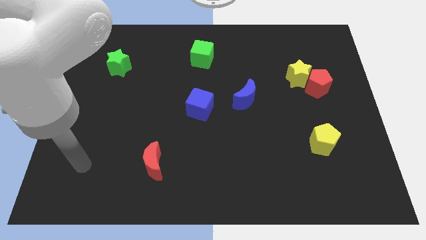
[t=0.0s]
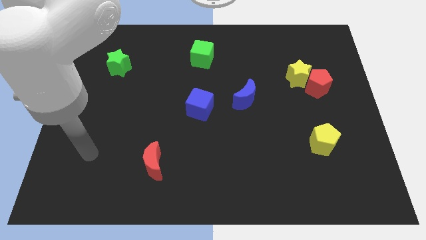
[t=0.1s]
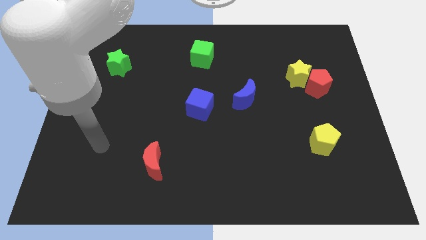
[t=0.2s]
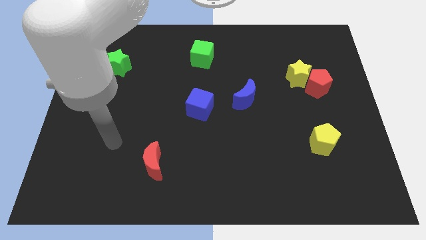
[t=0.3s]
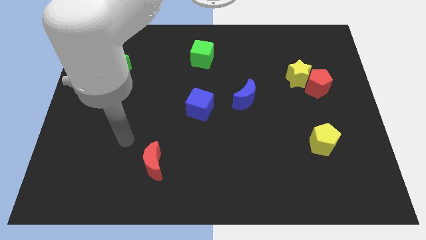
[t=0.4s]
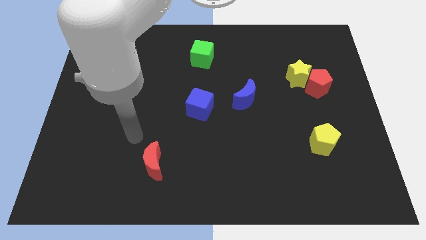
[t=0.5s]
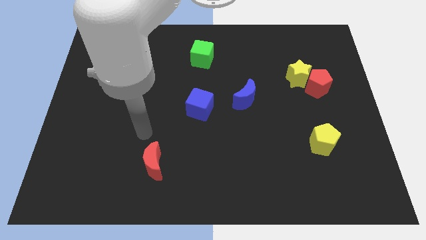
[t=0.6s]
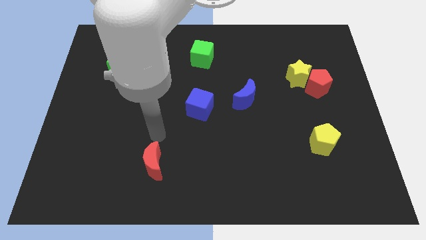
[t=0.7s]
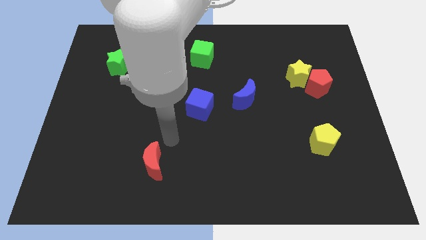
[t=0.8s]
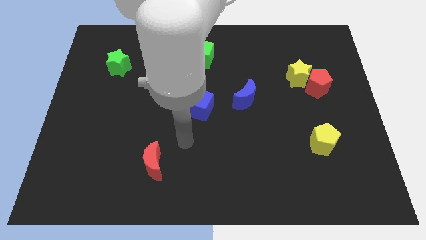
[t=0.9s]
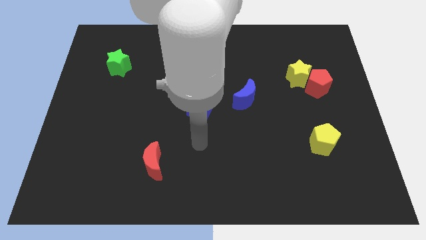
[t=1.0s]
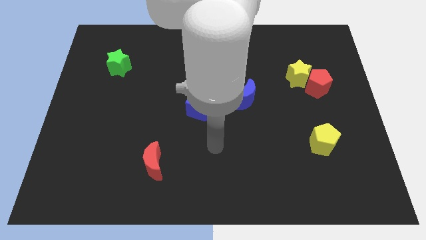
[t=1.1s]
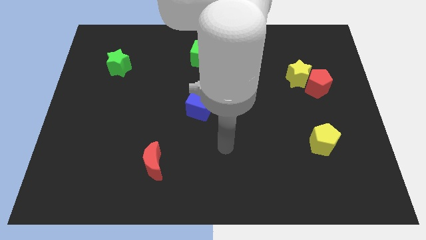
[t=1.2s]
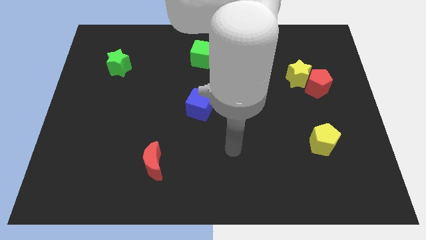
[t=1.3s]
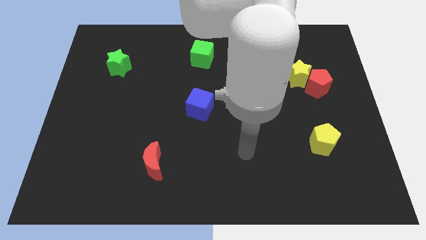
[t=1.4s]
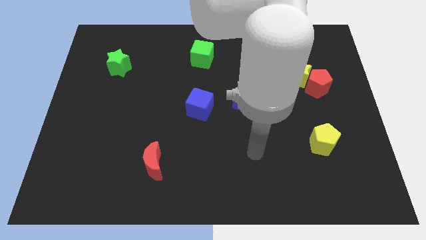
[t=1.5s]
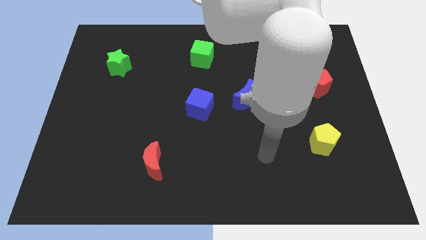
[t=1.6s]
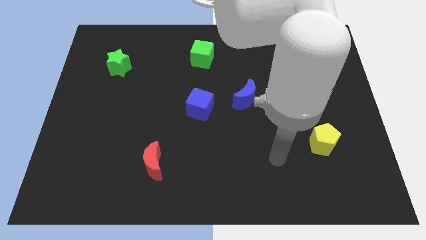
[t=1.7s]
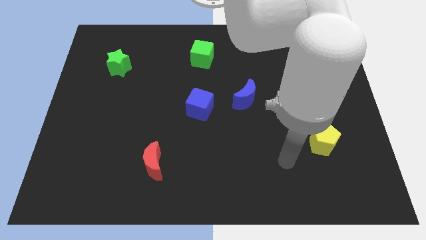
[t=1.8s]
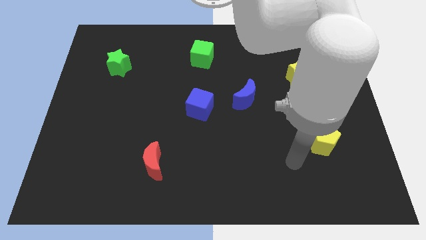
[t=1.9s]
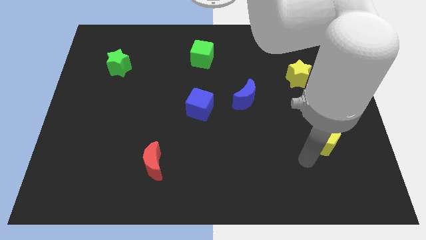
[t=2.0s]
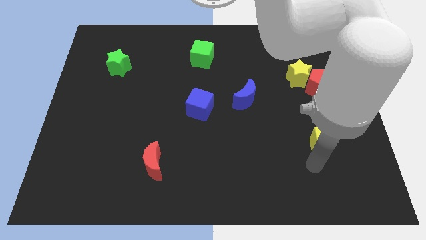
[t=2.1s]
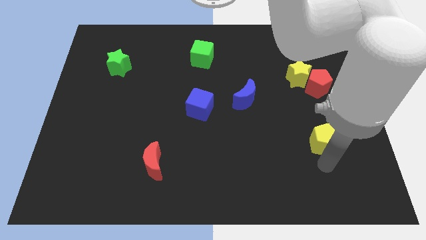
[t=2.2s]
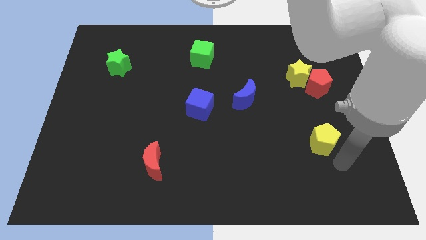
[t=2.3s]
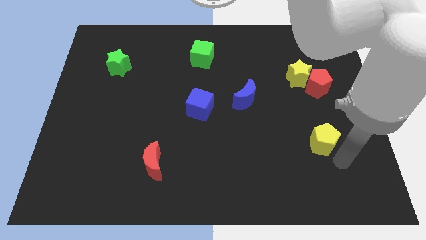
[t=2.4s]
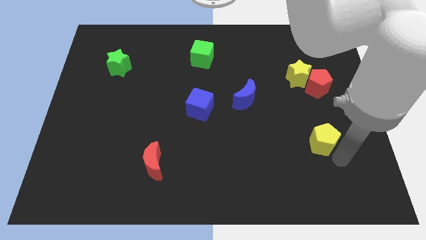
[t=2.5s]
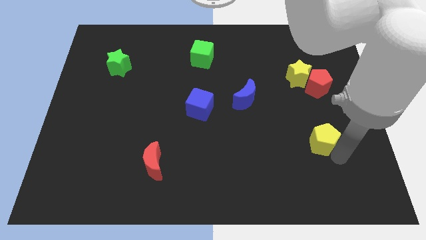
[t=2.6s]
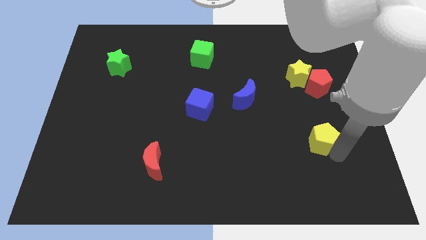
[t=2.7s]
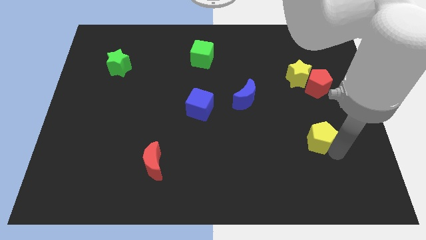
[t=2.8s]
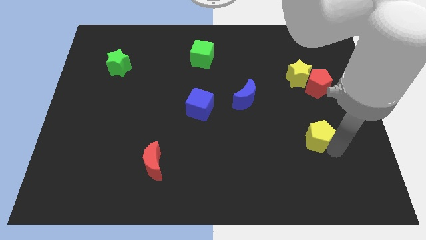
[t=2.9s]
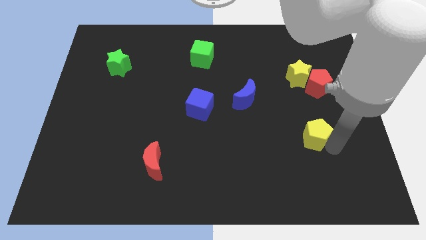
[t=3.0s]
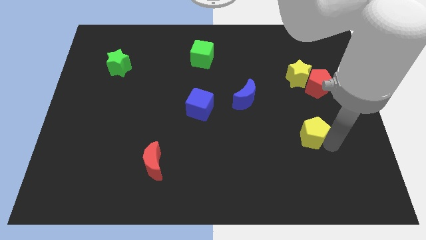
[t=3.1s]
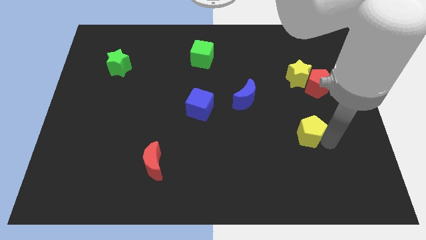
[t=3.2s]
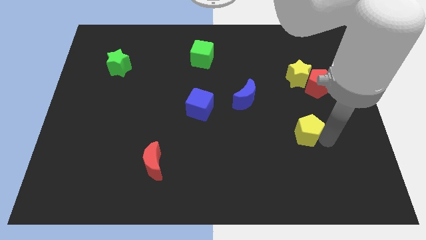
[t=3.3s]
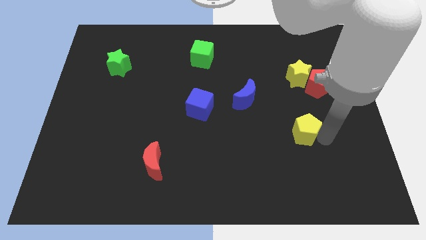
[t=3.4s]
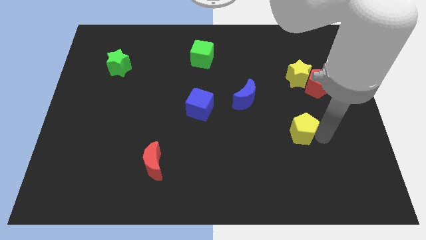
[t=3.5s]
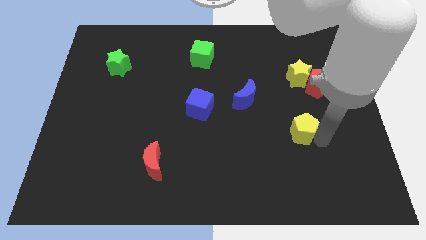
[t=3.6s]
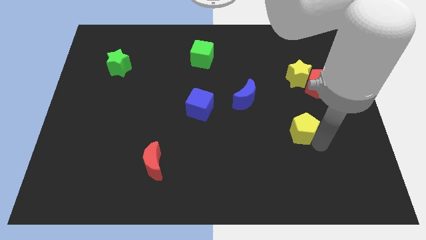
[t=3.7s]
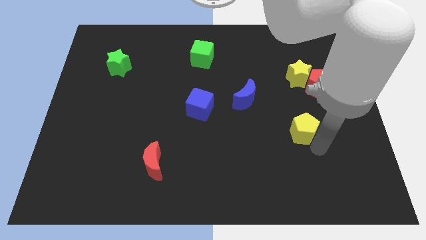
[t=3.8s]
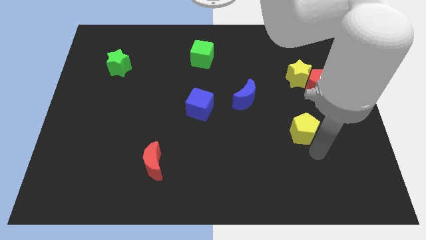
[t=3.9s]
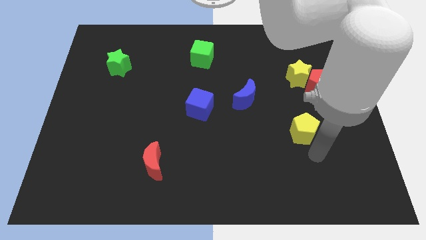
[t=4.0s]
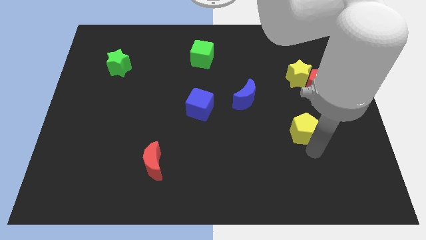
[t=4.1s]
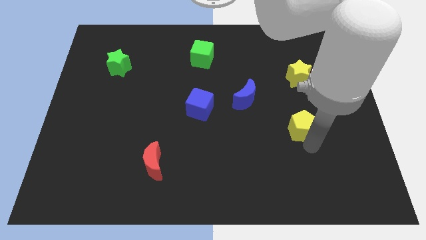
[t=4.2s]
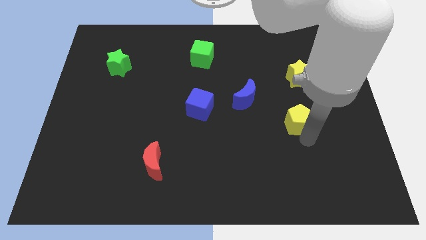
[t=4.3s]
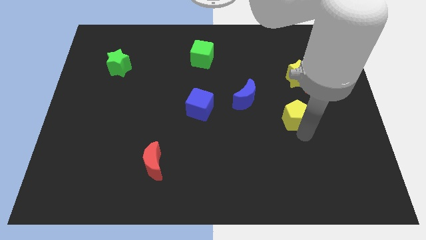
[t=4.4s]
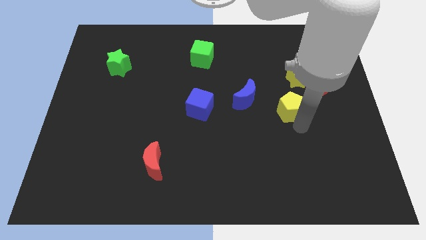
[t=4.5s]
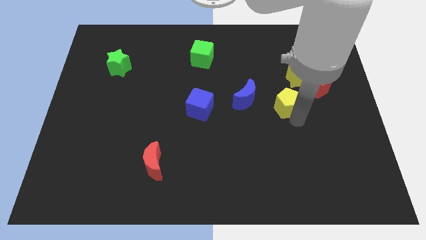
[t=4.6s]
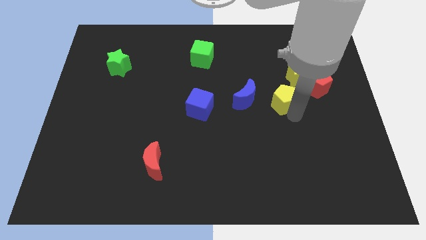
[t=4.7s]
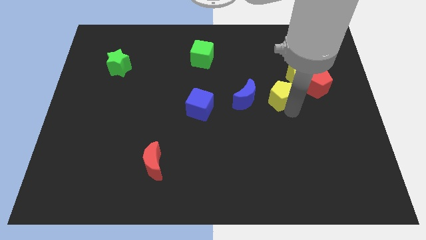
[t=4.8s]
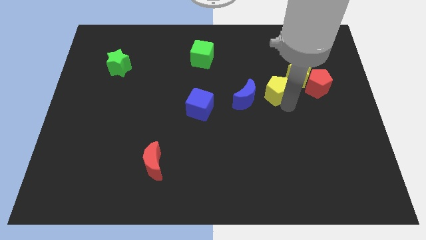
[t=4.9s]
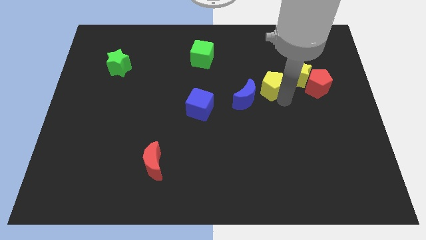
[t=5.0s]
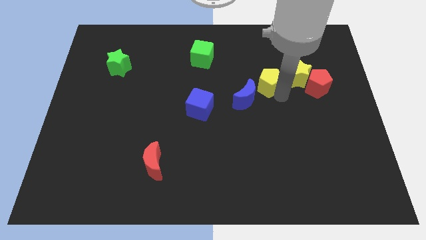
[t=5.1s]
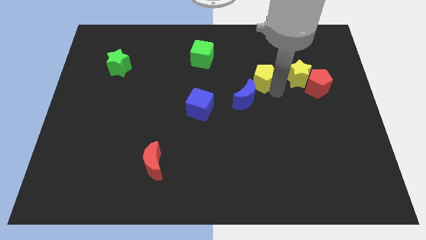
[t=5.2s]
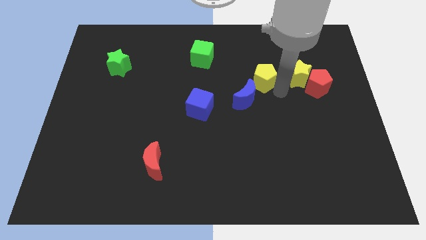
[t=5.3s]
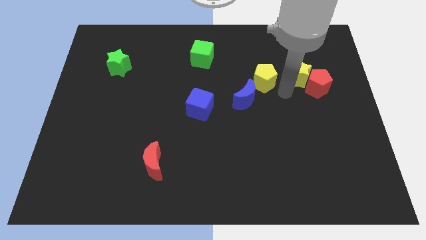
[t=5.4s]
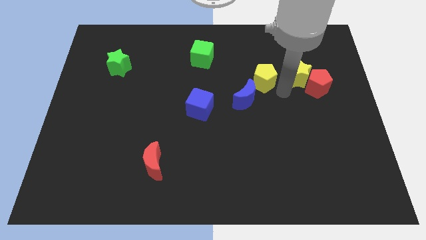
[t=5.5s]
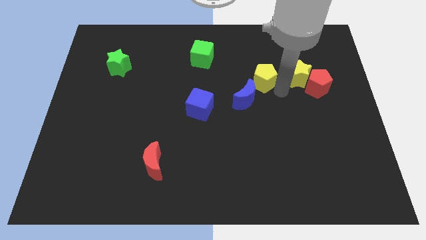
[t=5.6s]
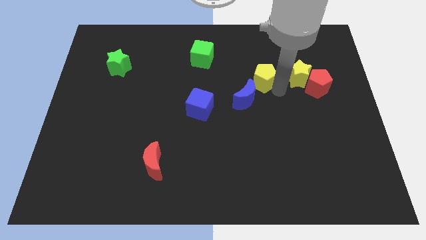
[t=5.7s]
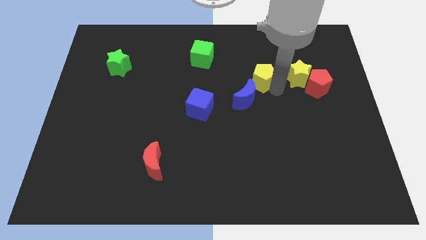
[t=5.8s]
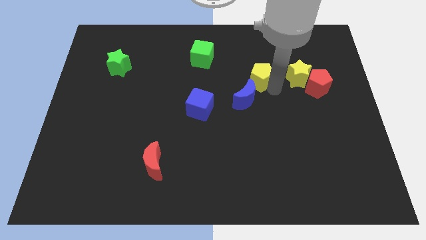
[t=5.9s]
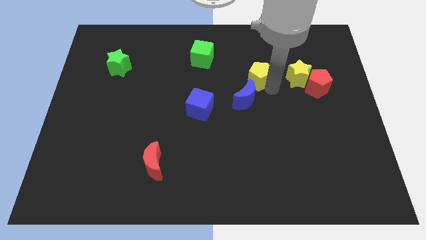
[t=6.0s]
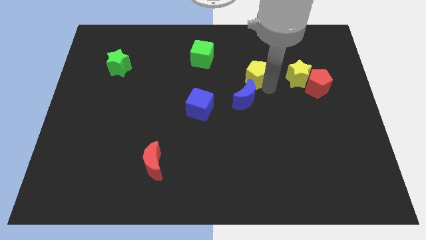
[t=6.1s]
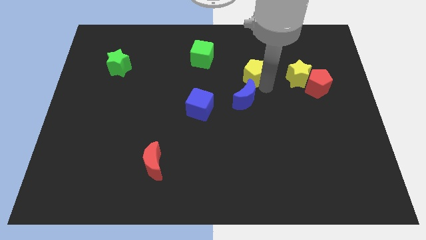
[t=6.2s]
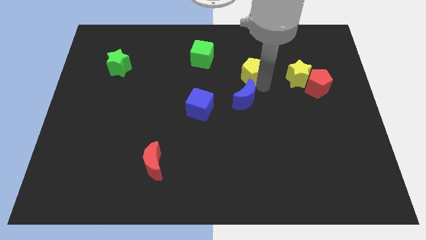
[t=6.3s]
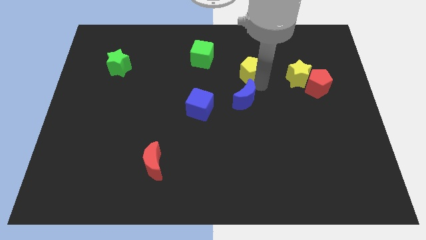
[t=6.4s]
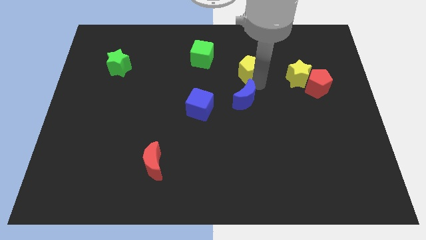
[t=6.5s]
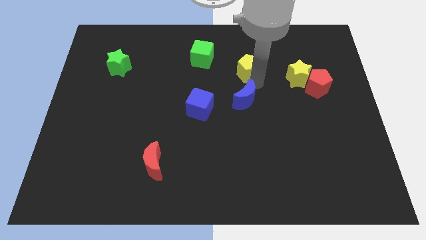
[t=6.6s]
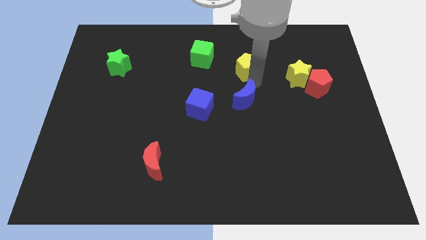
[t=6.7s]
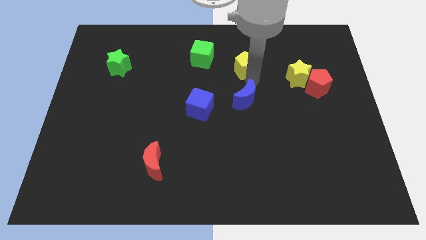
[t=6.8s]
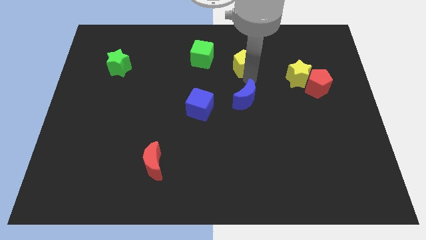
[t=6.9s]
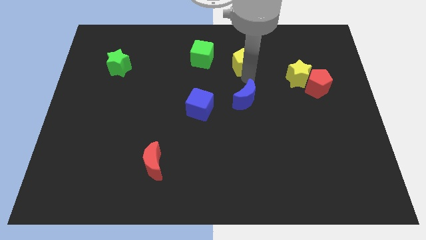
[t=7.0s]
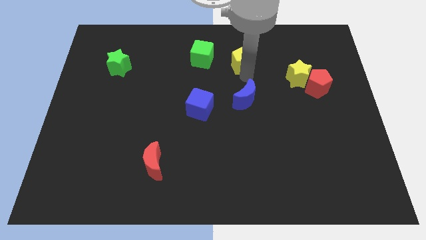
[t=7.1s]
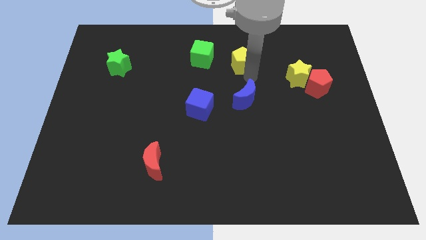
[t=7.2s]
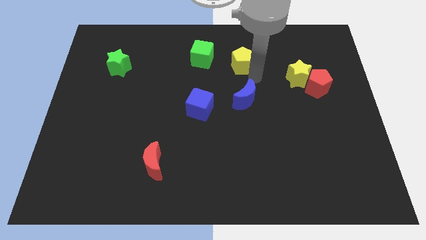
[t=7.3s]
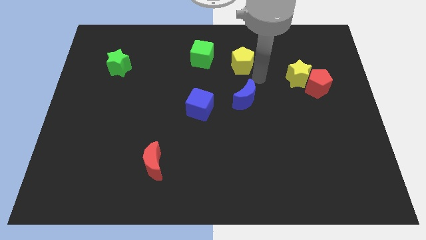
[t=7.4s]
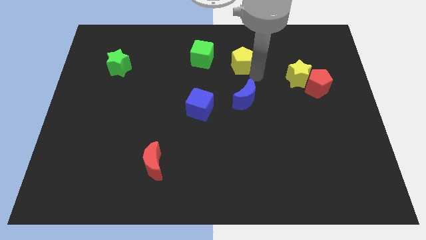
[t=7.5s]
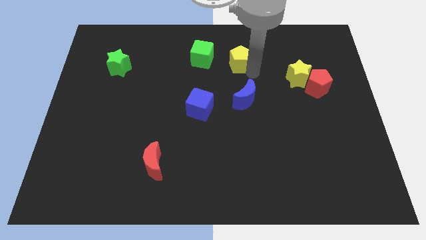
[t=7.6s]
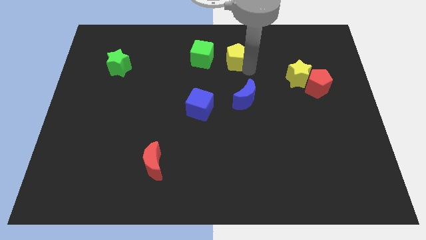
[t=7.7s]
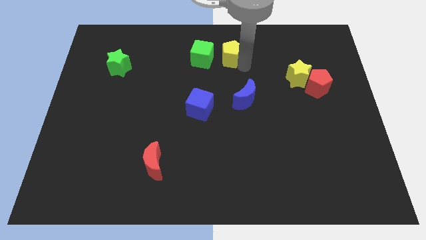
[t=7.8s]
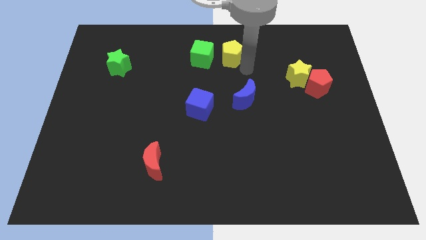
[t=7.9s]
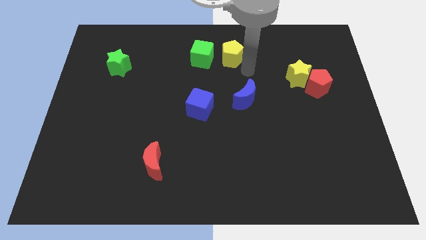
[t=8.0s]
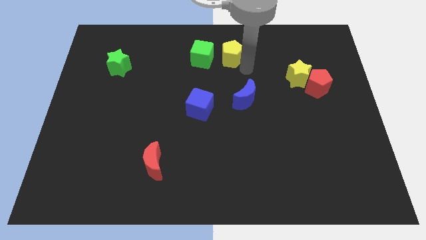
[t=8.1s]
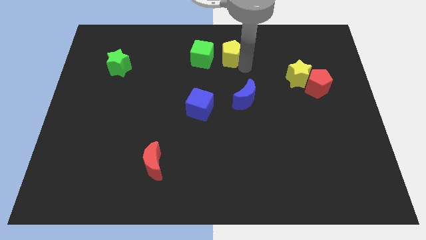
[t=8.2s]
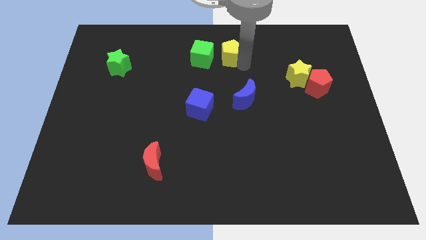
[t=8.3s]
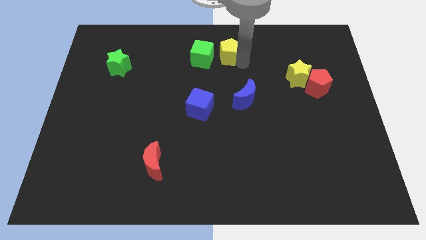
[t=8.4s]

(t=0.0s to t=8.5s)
slide the yellow pentagon to the top side
